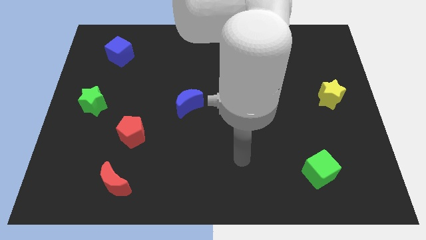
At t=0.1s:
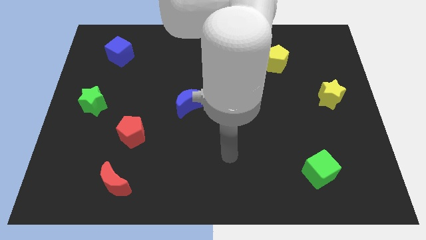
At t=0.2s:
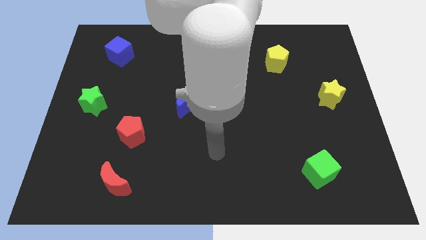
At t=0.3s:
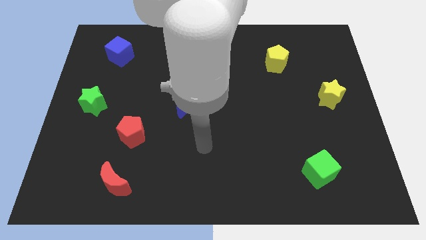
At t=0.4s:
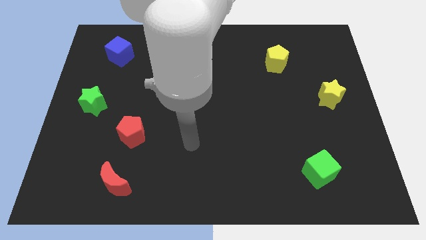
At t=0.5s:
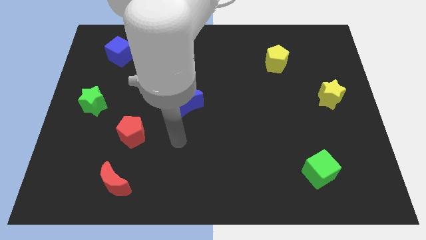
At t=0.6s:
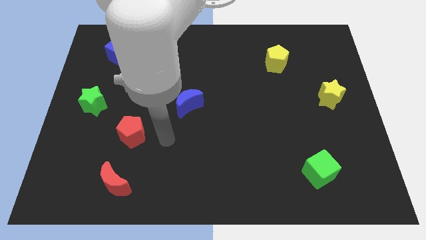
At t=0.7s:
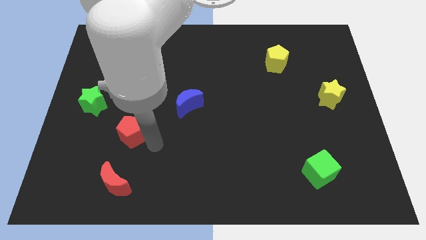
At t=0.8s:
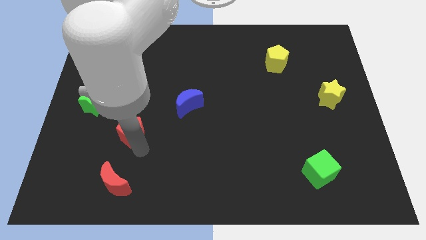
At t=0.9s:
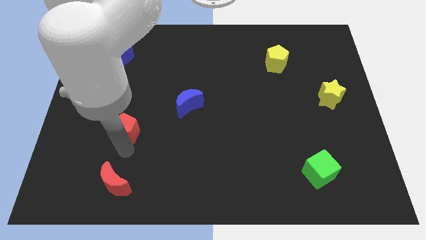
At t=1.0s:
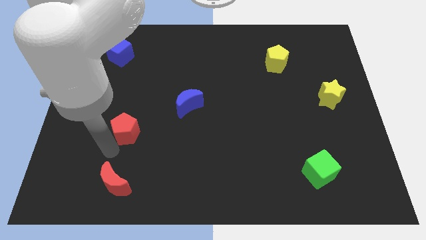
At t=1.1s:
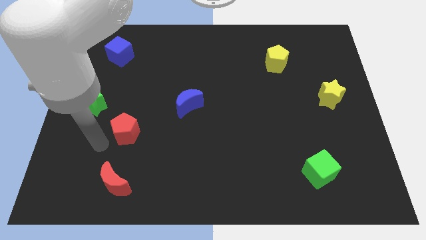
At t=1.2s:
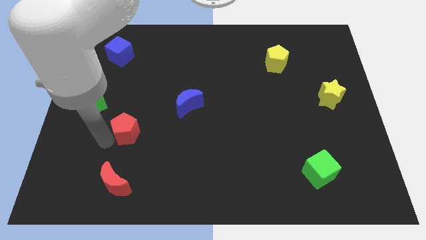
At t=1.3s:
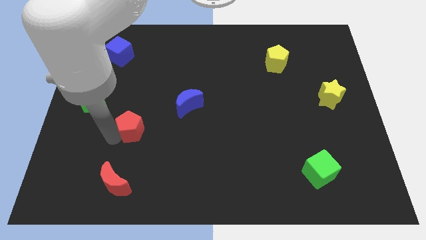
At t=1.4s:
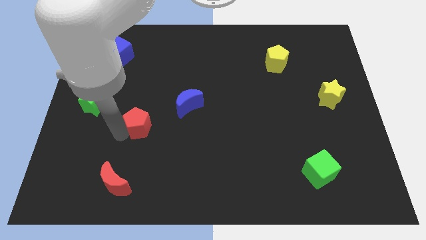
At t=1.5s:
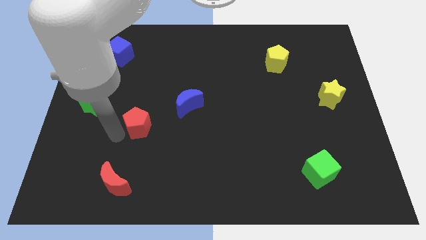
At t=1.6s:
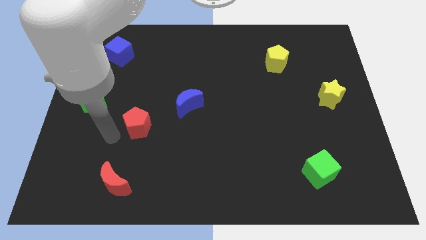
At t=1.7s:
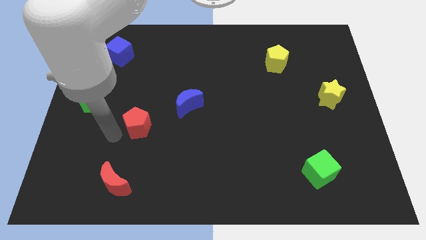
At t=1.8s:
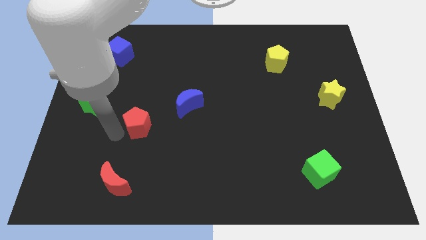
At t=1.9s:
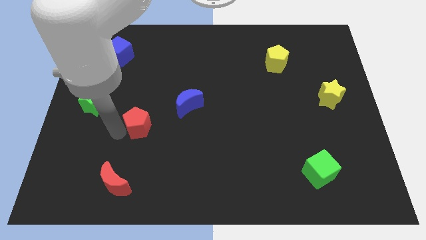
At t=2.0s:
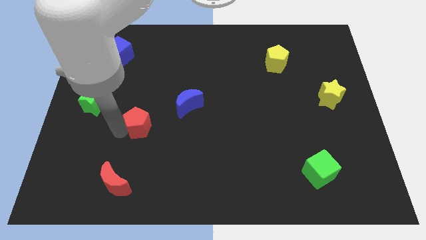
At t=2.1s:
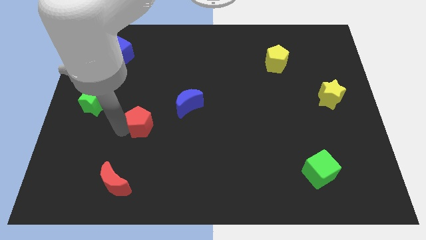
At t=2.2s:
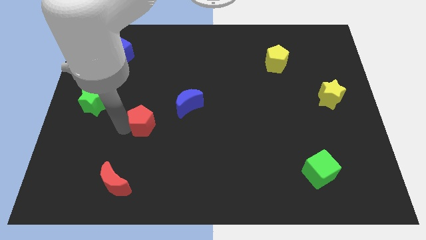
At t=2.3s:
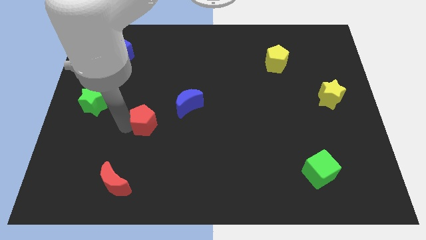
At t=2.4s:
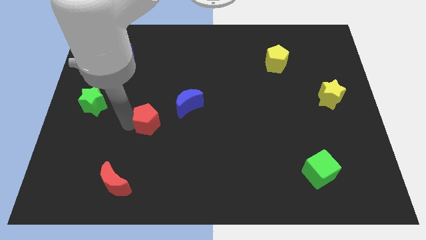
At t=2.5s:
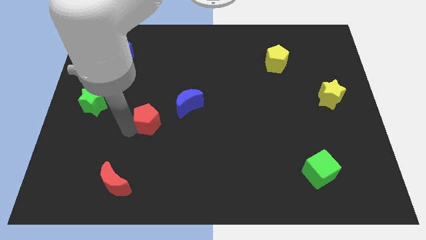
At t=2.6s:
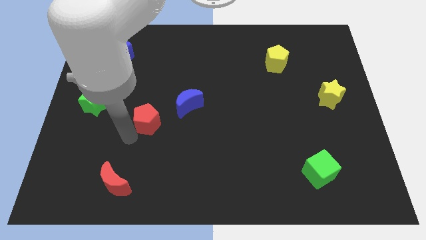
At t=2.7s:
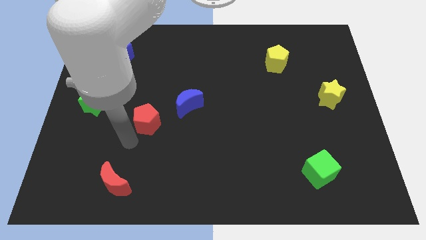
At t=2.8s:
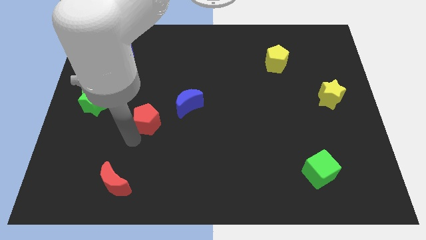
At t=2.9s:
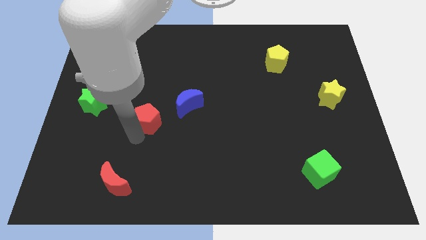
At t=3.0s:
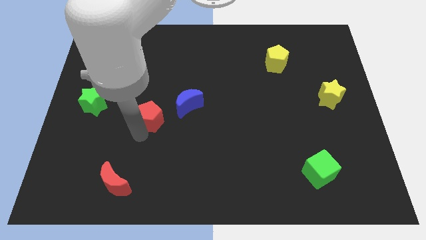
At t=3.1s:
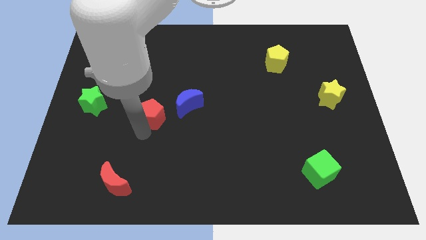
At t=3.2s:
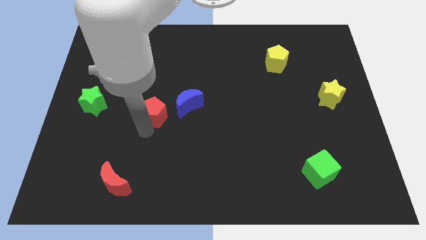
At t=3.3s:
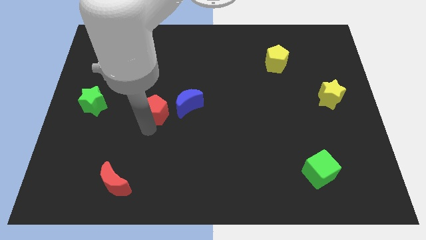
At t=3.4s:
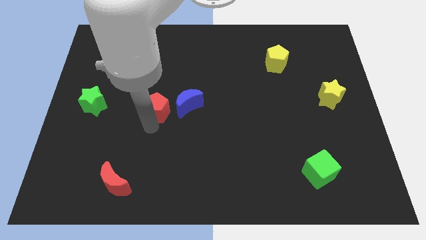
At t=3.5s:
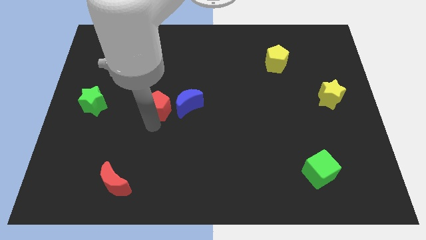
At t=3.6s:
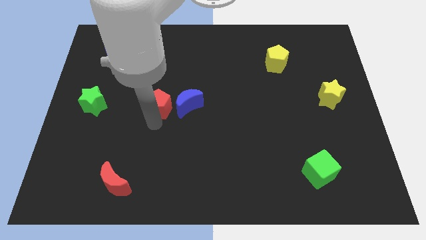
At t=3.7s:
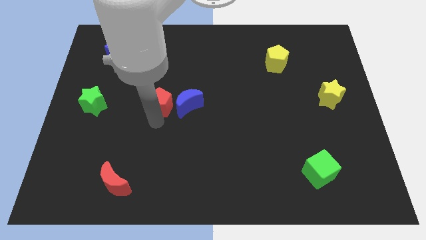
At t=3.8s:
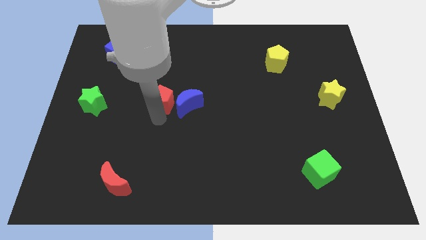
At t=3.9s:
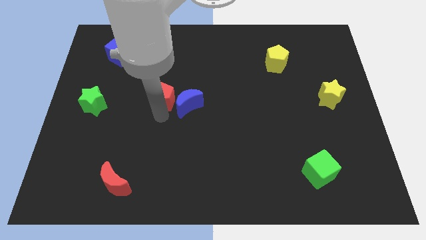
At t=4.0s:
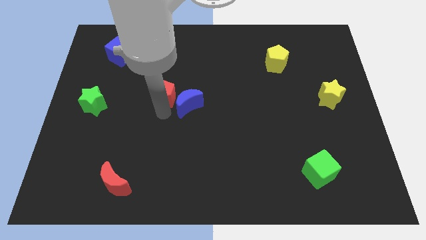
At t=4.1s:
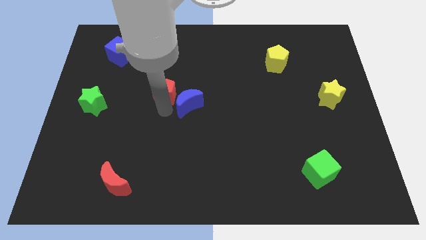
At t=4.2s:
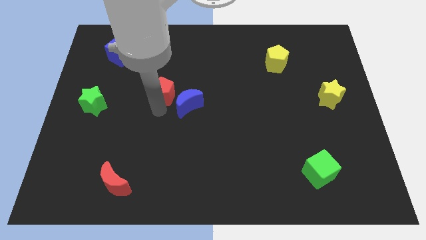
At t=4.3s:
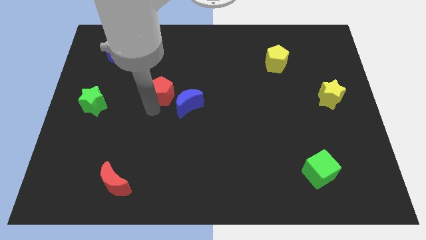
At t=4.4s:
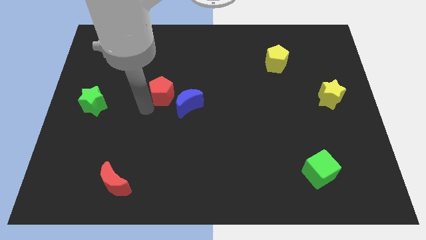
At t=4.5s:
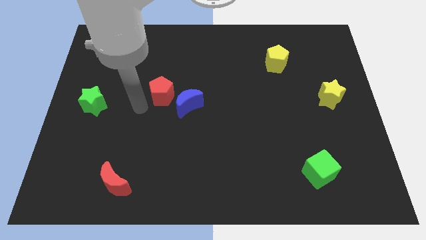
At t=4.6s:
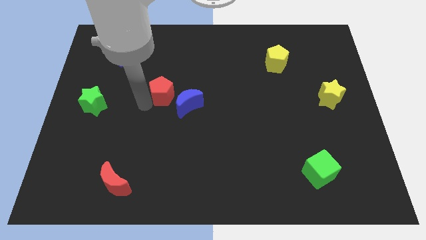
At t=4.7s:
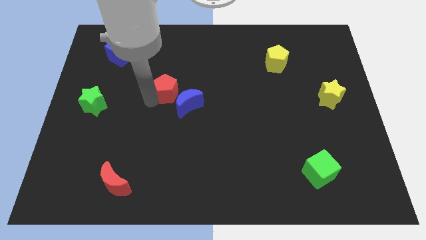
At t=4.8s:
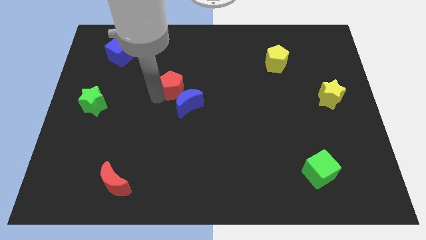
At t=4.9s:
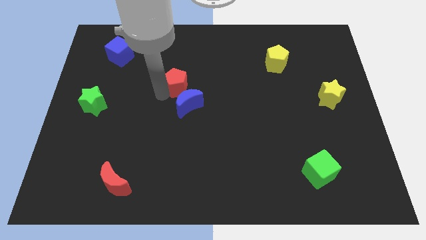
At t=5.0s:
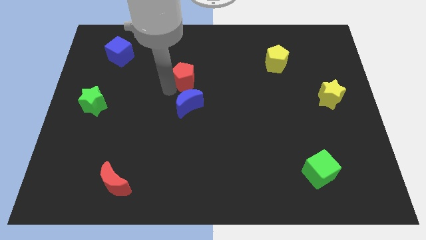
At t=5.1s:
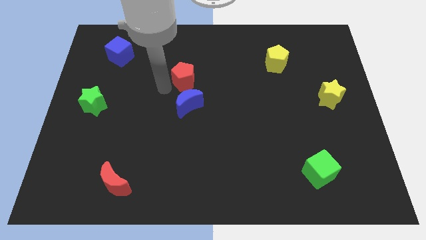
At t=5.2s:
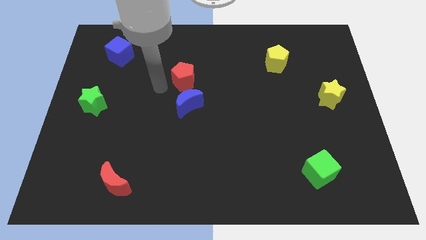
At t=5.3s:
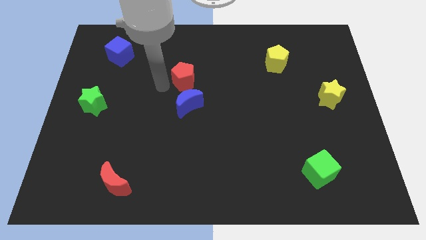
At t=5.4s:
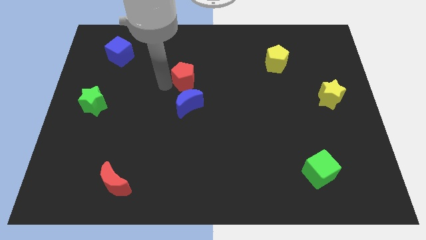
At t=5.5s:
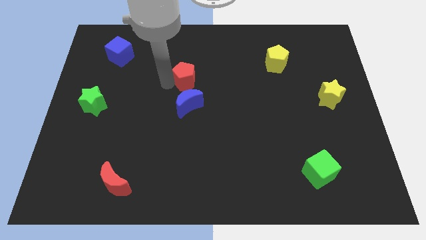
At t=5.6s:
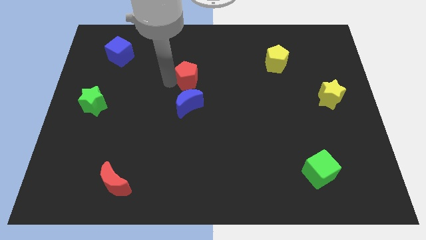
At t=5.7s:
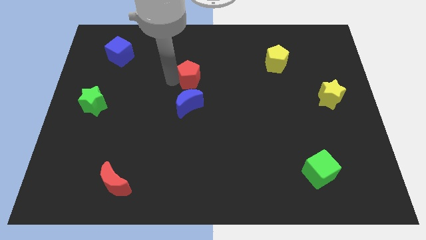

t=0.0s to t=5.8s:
slide the red pentagon upwards and to the right diagonally

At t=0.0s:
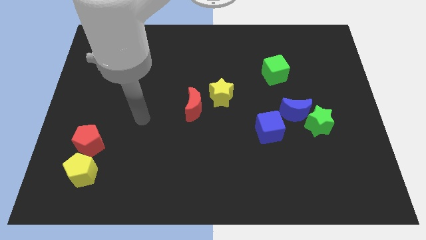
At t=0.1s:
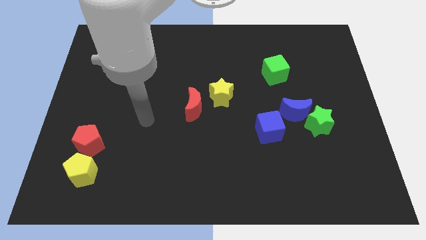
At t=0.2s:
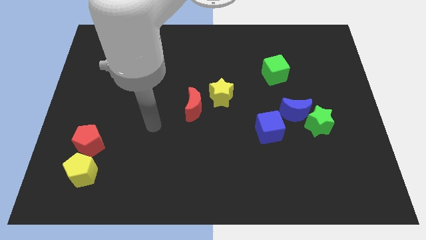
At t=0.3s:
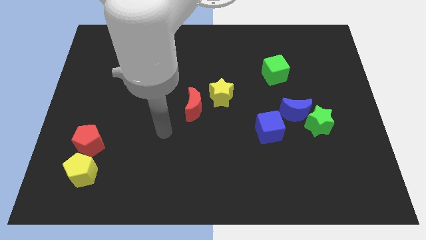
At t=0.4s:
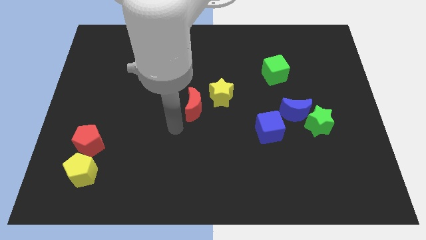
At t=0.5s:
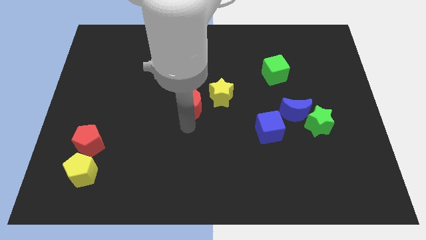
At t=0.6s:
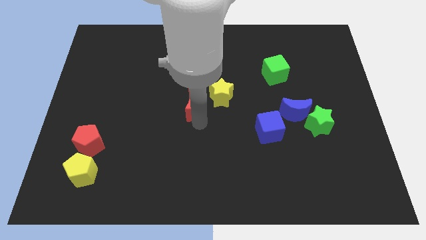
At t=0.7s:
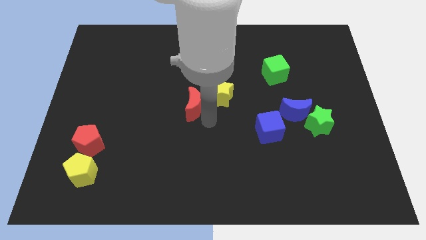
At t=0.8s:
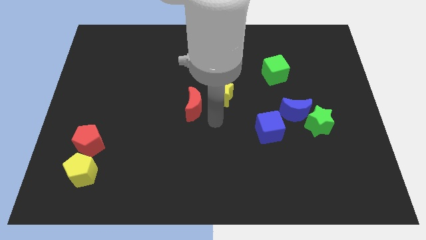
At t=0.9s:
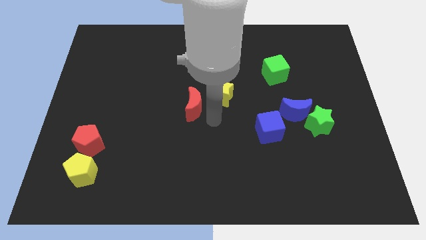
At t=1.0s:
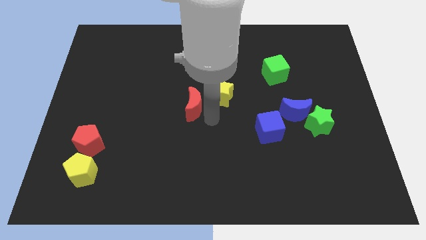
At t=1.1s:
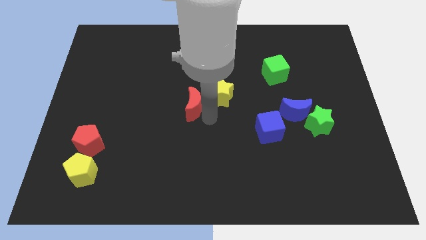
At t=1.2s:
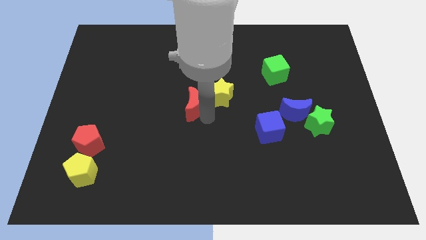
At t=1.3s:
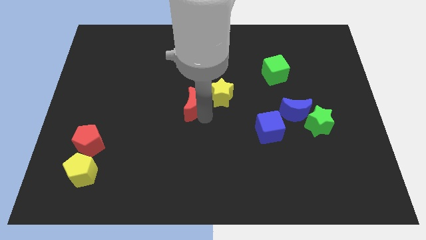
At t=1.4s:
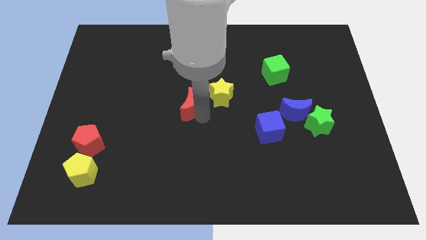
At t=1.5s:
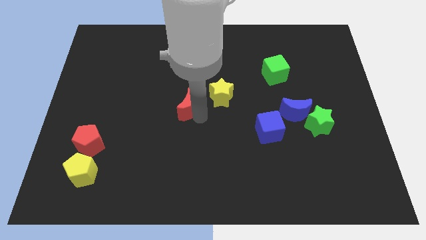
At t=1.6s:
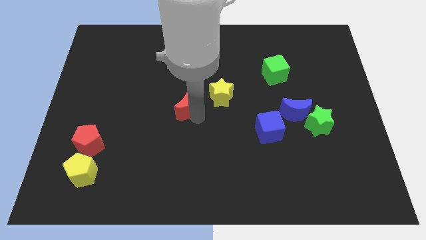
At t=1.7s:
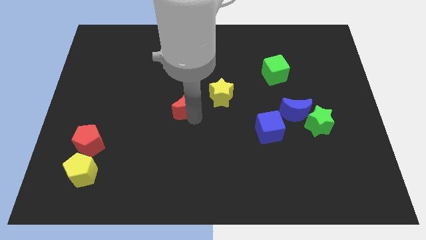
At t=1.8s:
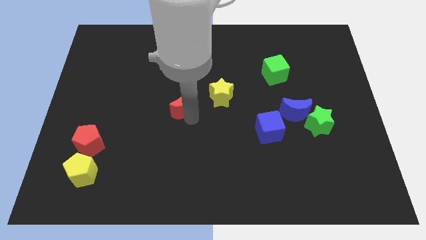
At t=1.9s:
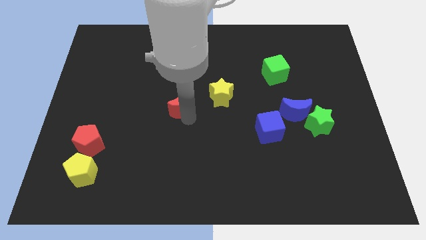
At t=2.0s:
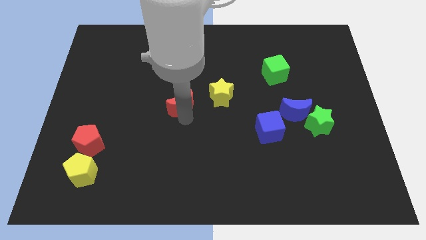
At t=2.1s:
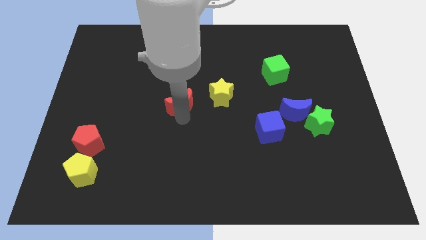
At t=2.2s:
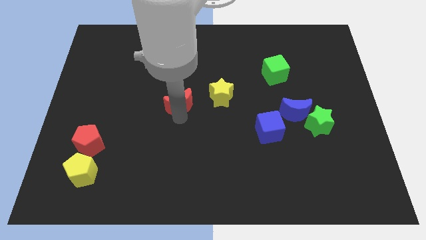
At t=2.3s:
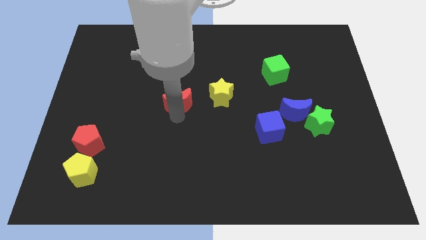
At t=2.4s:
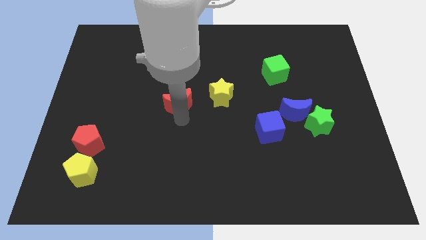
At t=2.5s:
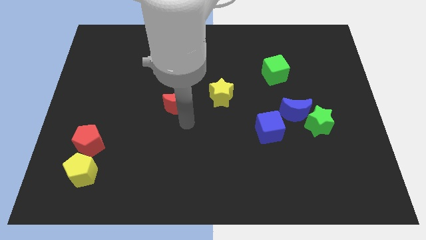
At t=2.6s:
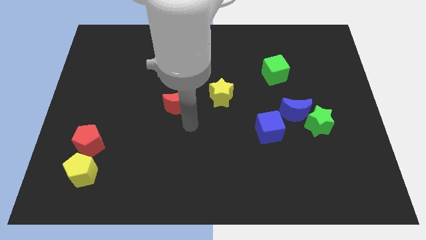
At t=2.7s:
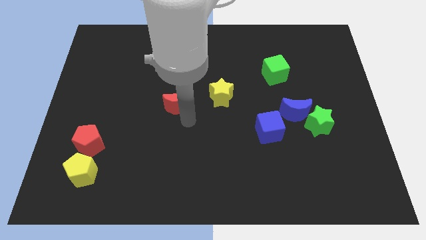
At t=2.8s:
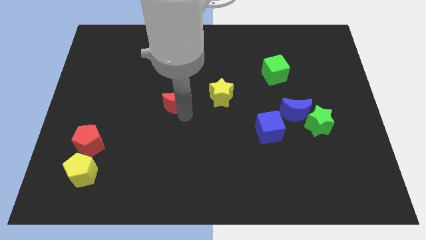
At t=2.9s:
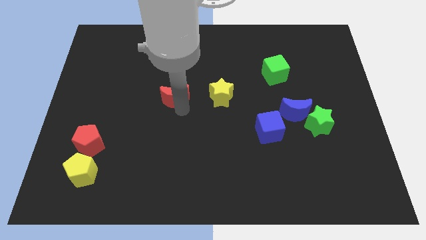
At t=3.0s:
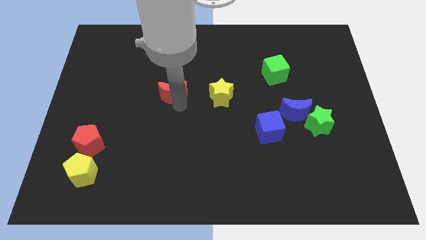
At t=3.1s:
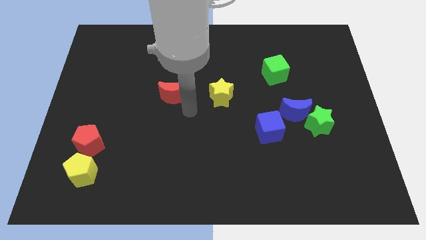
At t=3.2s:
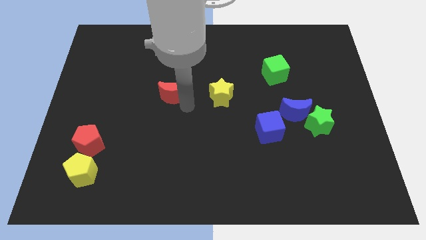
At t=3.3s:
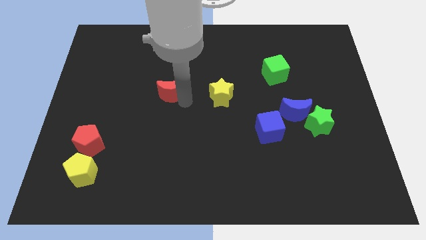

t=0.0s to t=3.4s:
push the red moon diagonally up and to the left a little
